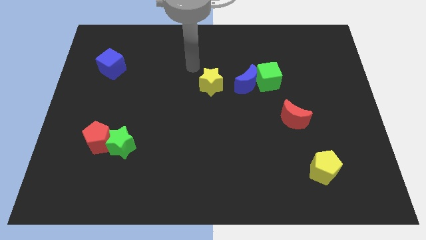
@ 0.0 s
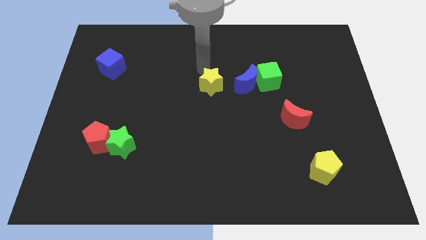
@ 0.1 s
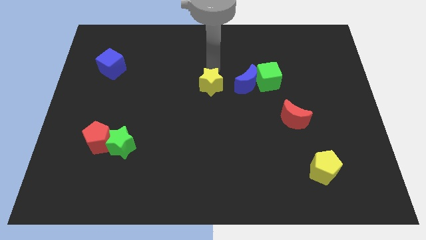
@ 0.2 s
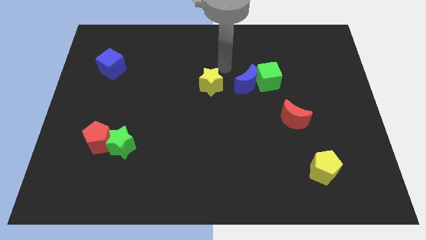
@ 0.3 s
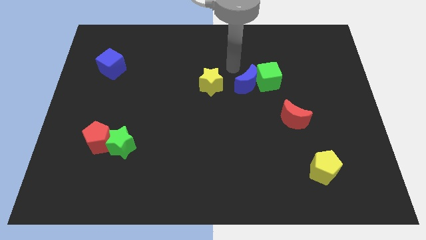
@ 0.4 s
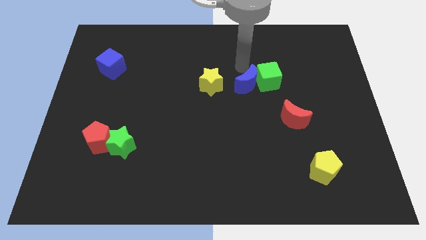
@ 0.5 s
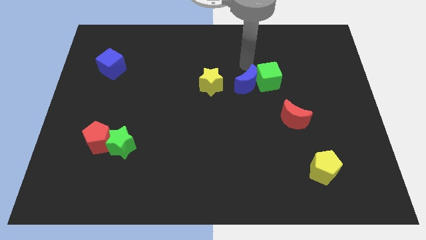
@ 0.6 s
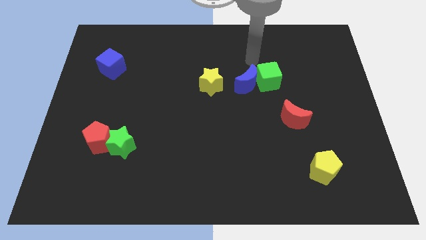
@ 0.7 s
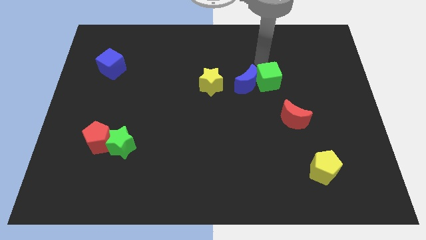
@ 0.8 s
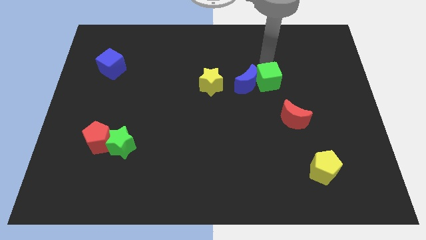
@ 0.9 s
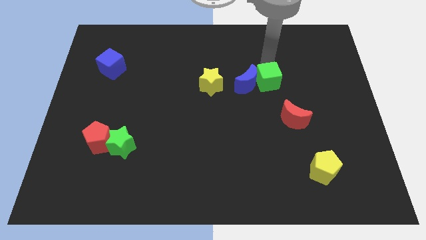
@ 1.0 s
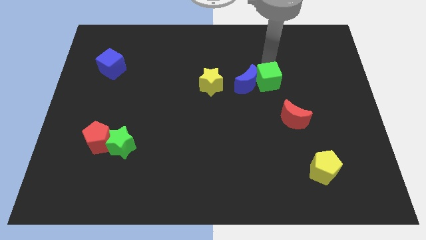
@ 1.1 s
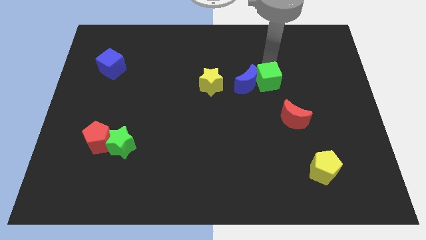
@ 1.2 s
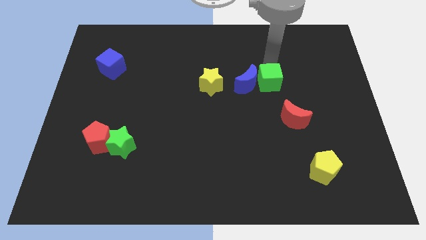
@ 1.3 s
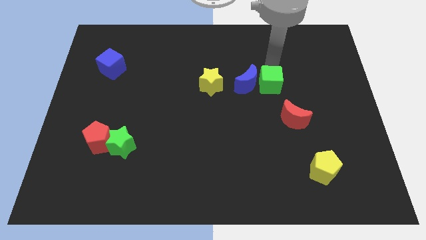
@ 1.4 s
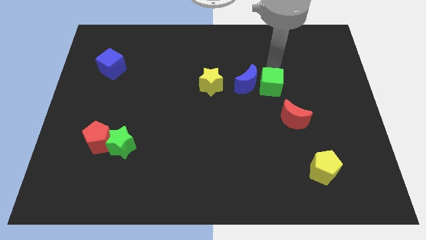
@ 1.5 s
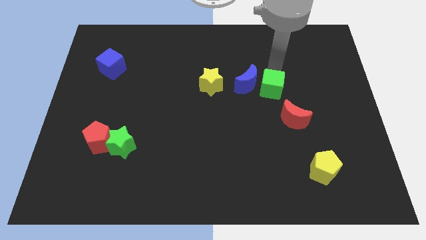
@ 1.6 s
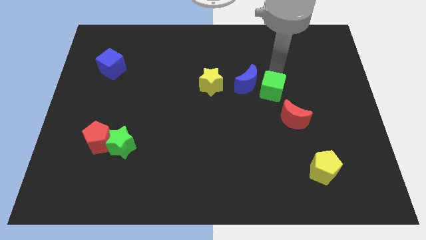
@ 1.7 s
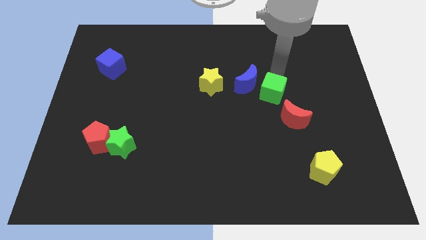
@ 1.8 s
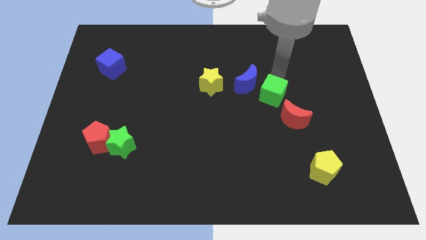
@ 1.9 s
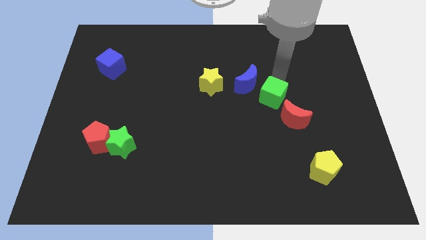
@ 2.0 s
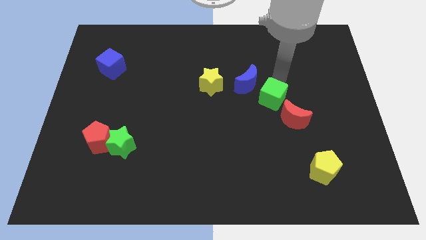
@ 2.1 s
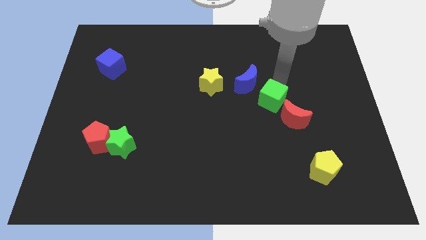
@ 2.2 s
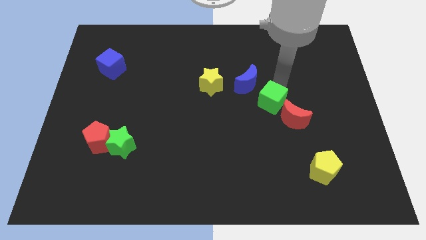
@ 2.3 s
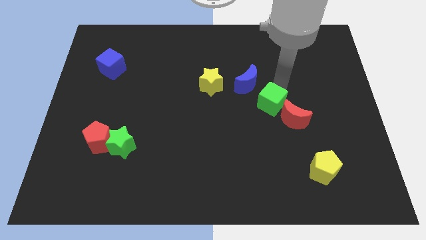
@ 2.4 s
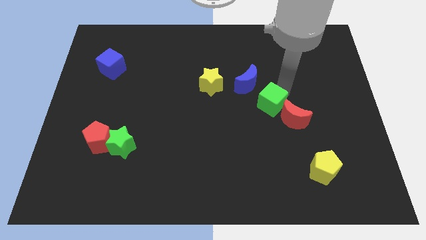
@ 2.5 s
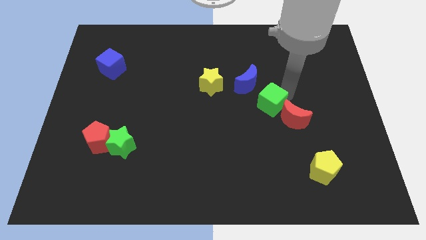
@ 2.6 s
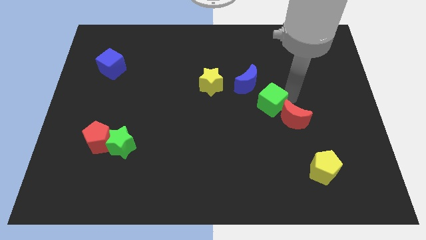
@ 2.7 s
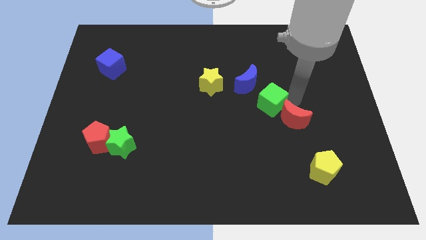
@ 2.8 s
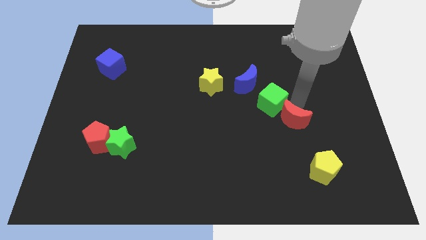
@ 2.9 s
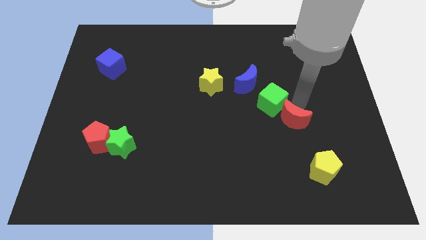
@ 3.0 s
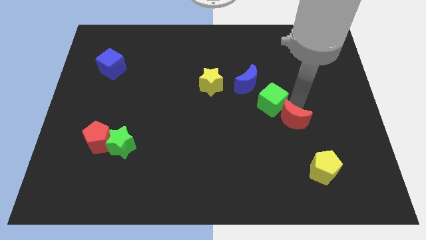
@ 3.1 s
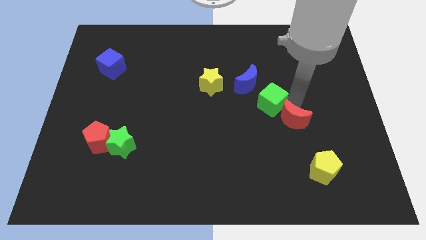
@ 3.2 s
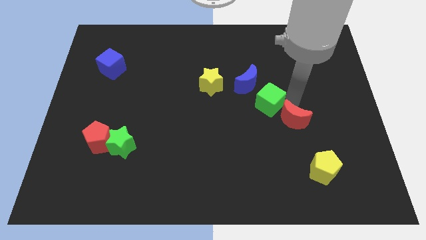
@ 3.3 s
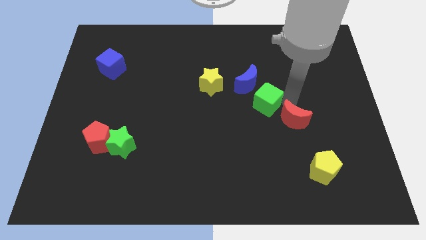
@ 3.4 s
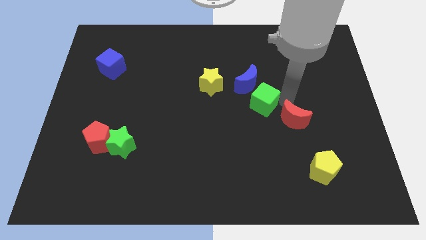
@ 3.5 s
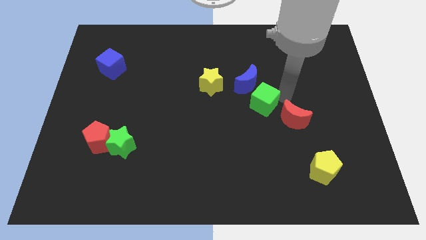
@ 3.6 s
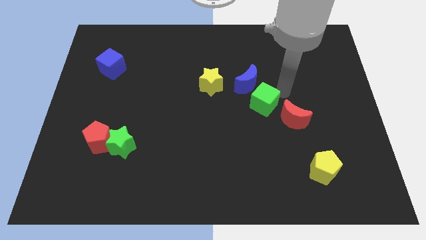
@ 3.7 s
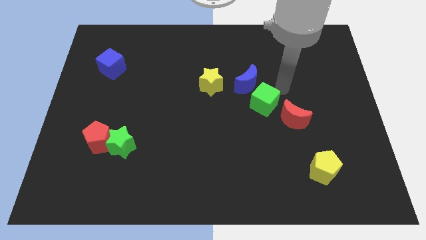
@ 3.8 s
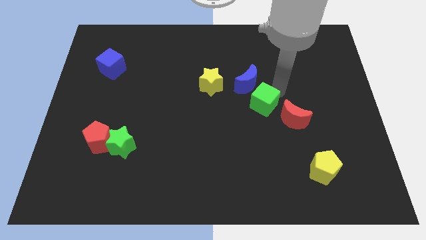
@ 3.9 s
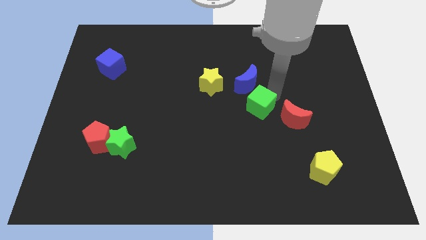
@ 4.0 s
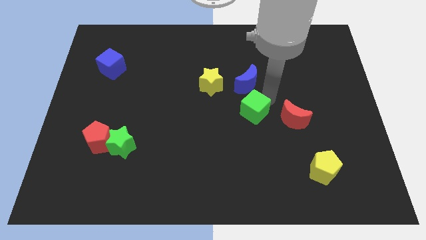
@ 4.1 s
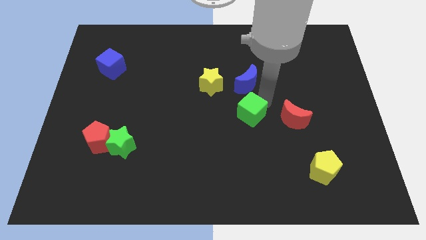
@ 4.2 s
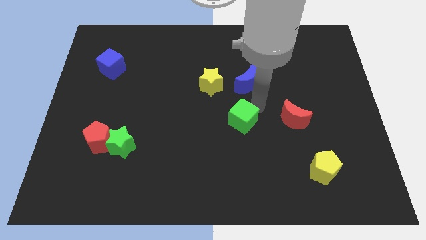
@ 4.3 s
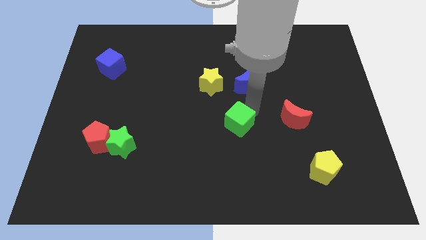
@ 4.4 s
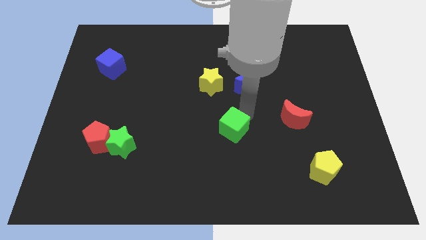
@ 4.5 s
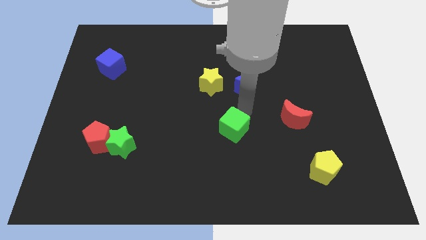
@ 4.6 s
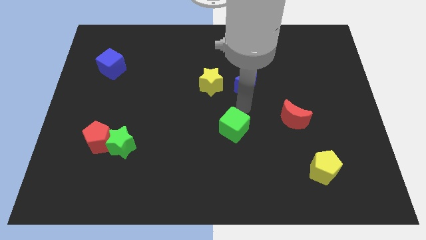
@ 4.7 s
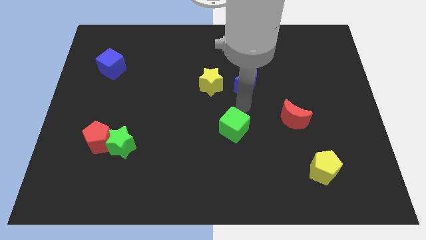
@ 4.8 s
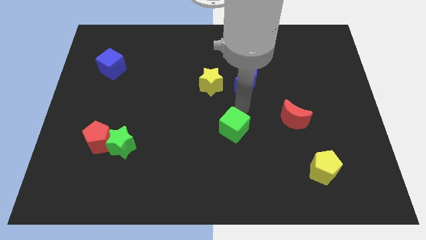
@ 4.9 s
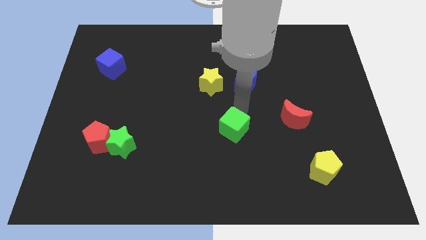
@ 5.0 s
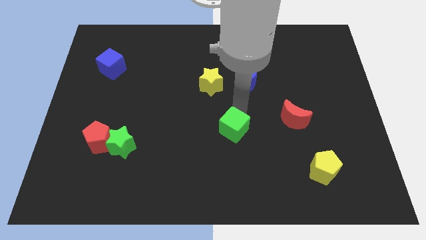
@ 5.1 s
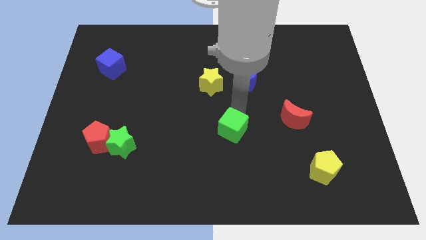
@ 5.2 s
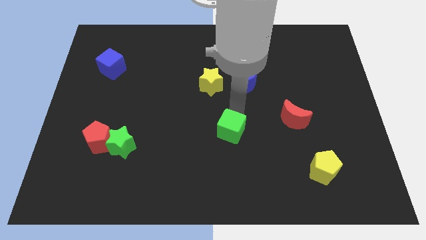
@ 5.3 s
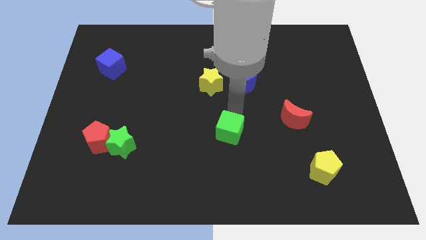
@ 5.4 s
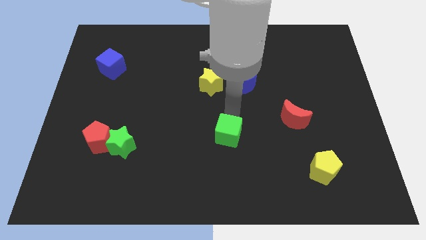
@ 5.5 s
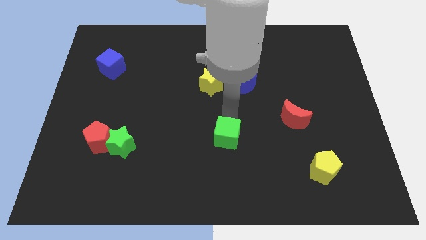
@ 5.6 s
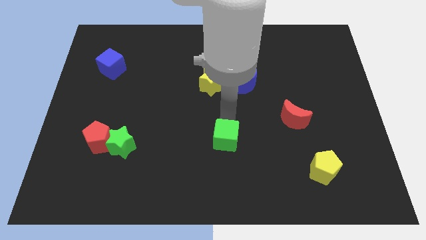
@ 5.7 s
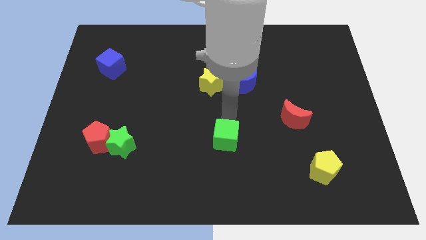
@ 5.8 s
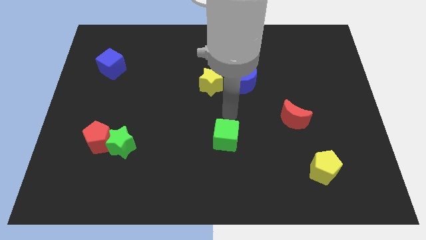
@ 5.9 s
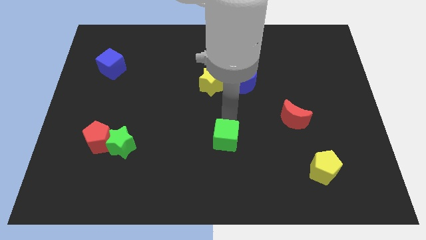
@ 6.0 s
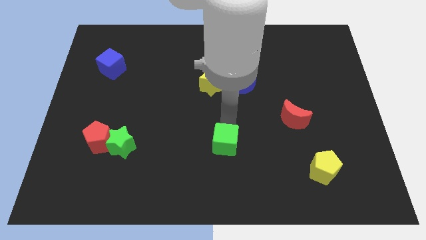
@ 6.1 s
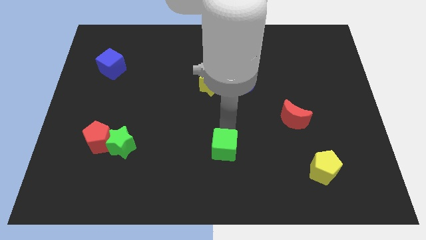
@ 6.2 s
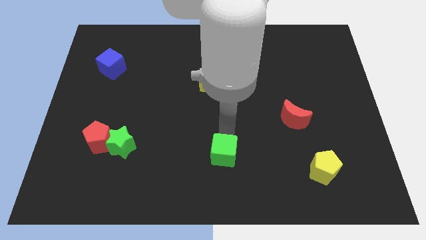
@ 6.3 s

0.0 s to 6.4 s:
slide the green cube to the bottom

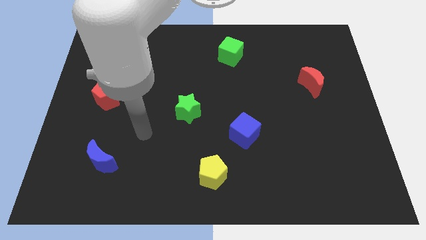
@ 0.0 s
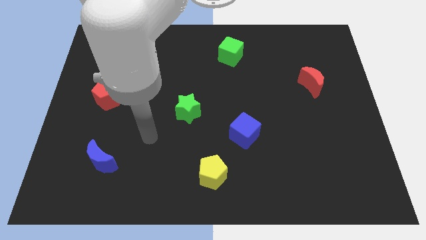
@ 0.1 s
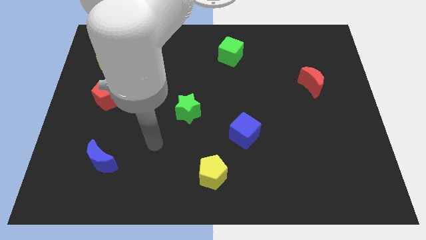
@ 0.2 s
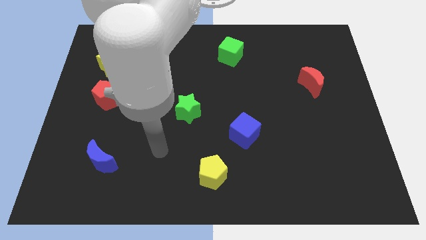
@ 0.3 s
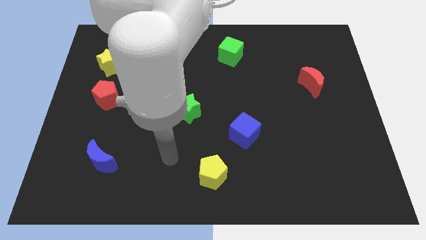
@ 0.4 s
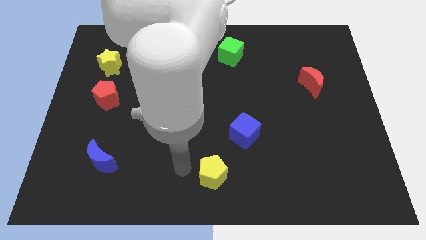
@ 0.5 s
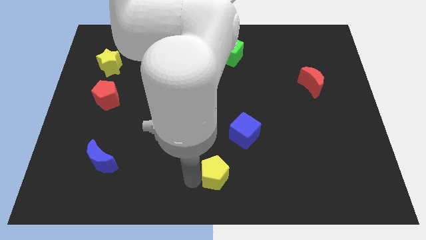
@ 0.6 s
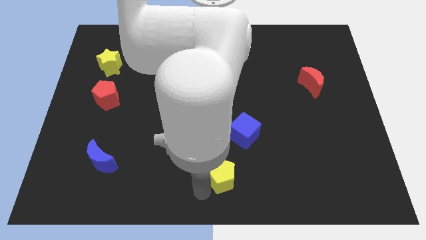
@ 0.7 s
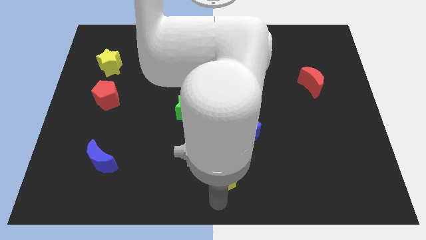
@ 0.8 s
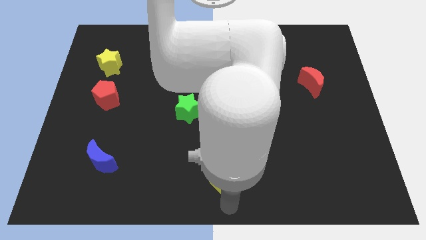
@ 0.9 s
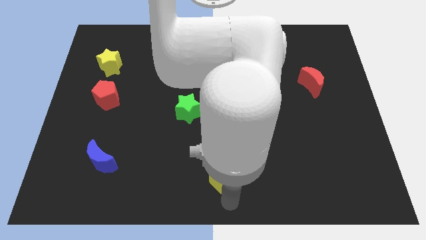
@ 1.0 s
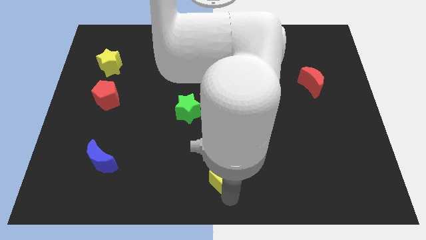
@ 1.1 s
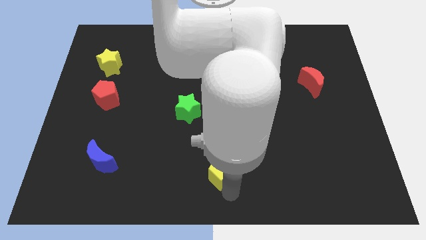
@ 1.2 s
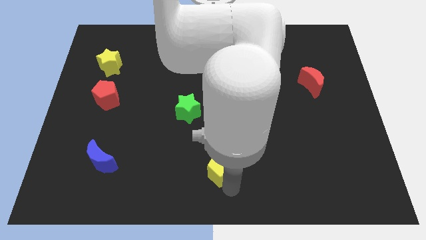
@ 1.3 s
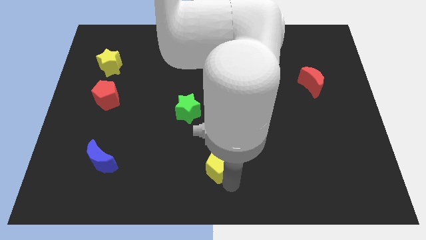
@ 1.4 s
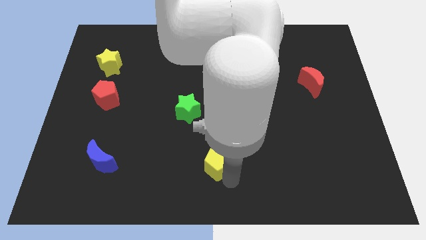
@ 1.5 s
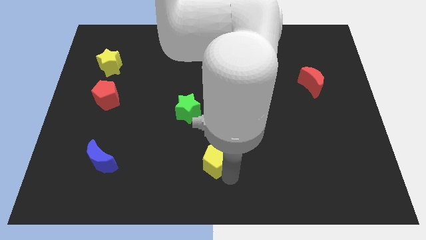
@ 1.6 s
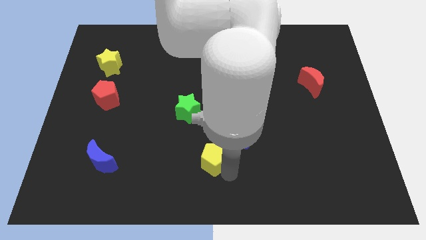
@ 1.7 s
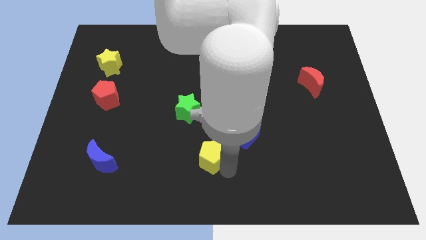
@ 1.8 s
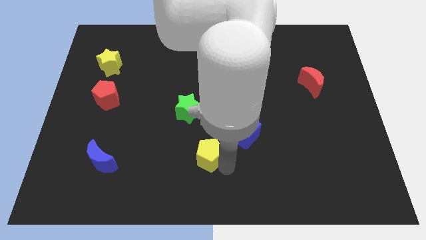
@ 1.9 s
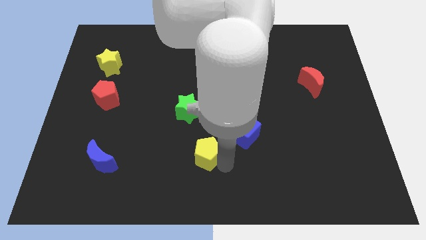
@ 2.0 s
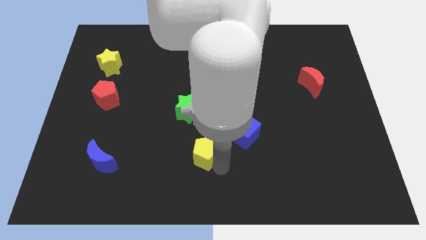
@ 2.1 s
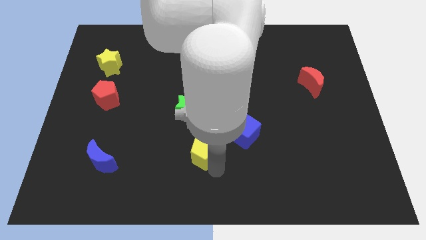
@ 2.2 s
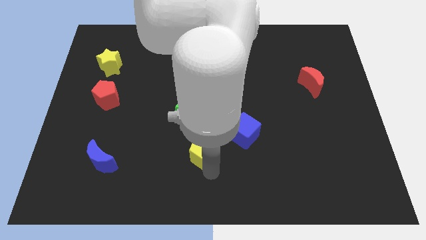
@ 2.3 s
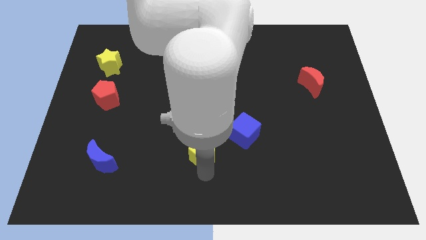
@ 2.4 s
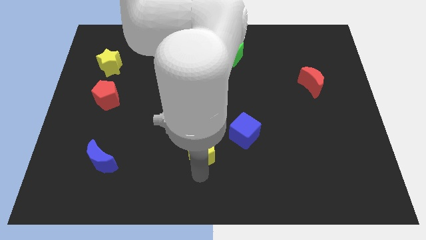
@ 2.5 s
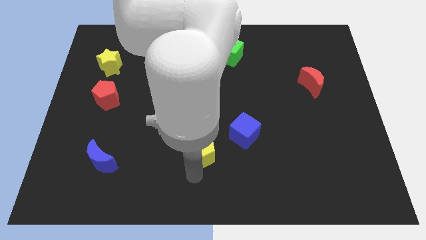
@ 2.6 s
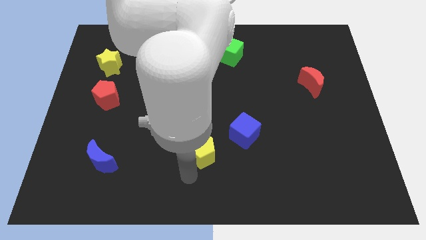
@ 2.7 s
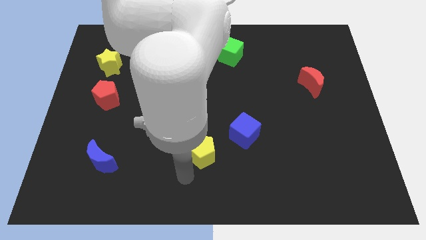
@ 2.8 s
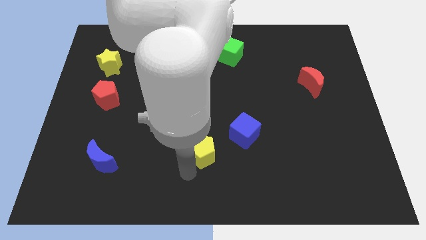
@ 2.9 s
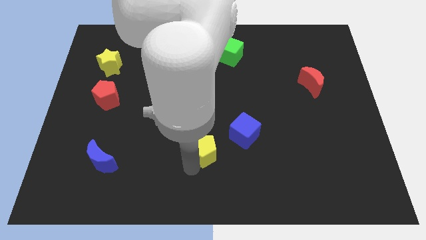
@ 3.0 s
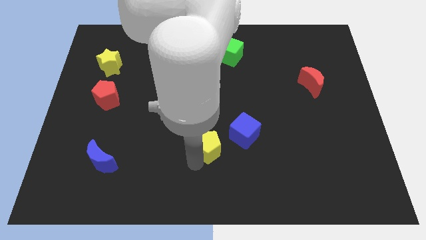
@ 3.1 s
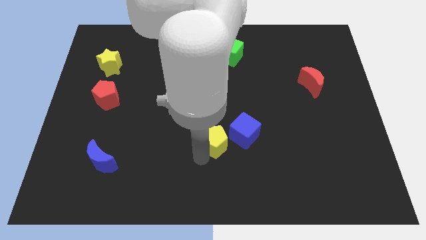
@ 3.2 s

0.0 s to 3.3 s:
slide the yellow pentagon to the center of the board
